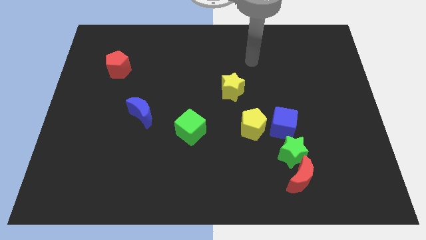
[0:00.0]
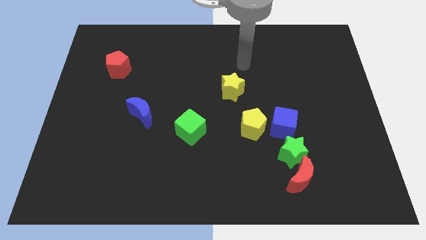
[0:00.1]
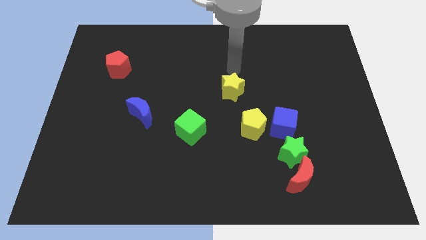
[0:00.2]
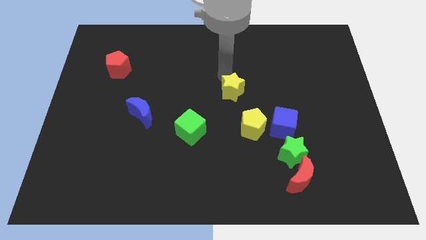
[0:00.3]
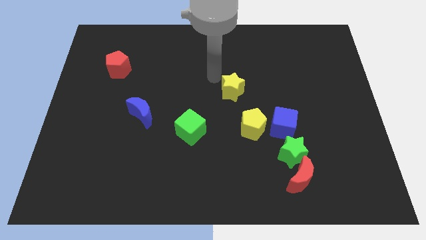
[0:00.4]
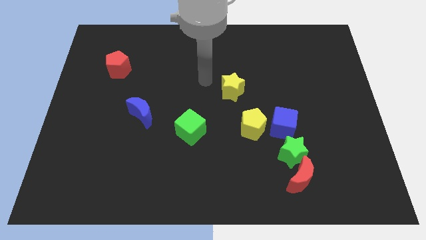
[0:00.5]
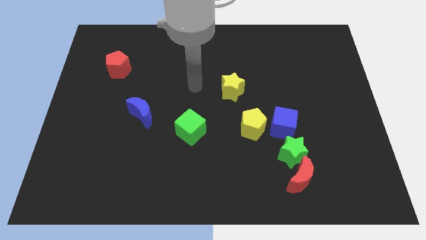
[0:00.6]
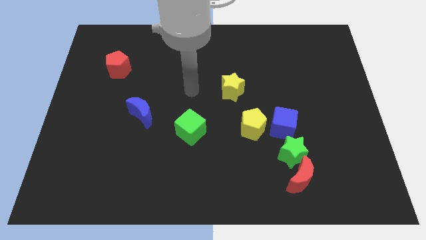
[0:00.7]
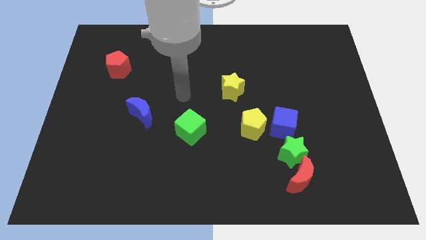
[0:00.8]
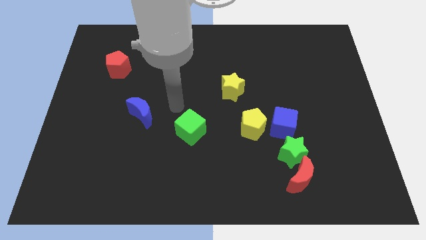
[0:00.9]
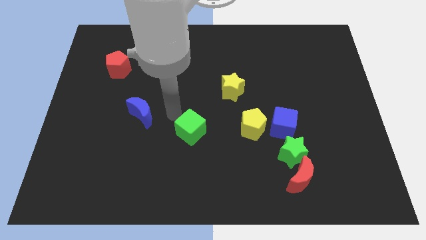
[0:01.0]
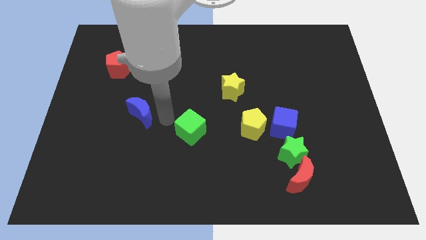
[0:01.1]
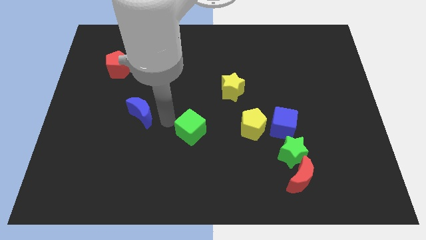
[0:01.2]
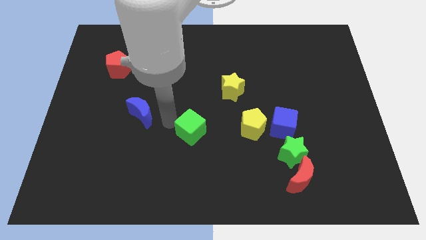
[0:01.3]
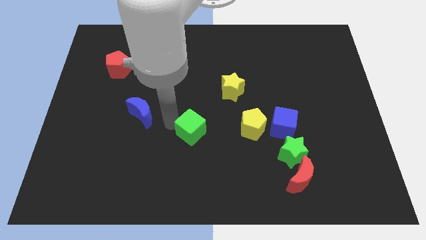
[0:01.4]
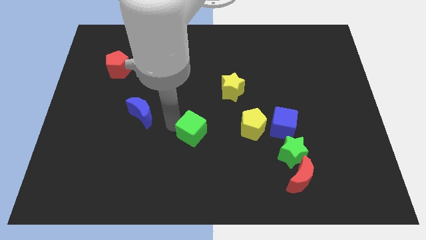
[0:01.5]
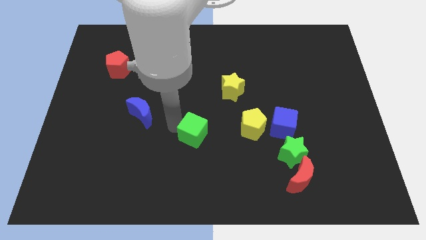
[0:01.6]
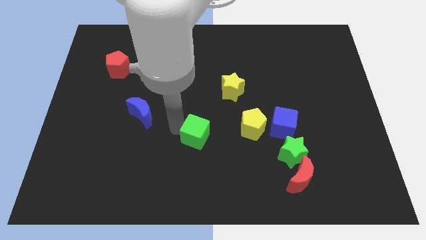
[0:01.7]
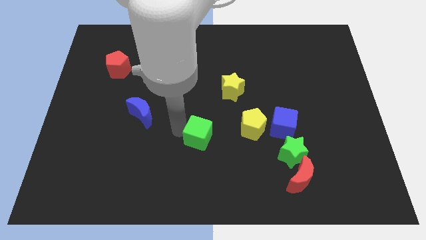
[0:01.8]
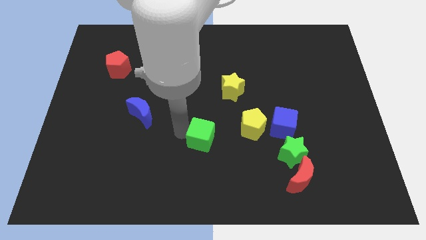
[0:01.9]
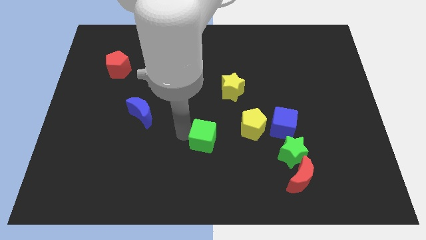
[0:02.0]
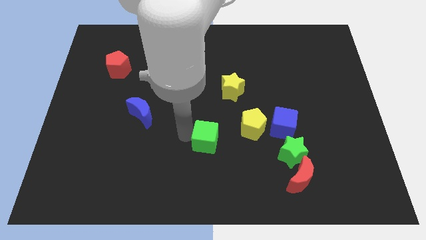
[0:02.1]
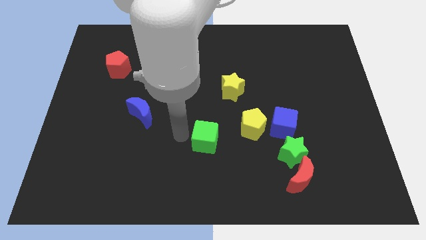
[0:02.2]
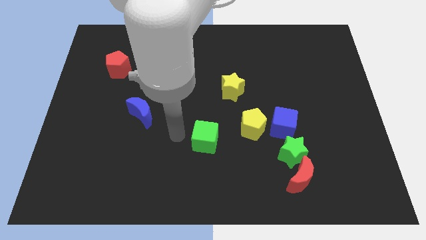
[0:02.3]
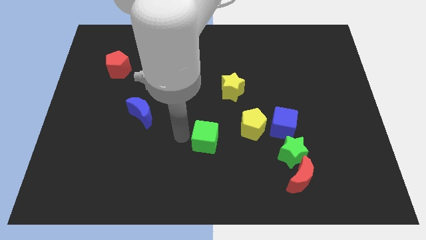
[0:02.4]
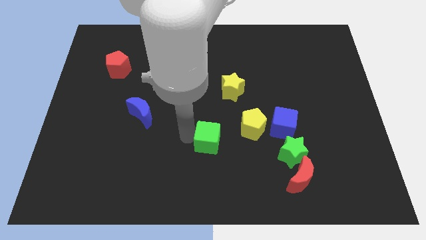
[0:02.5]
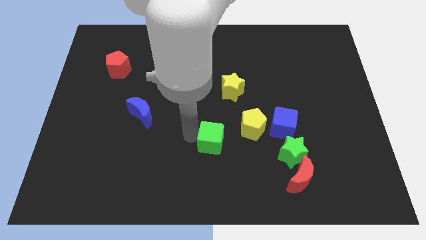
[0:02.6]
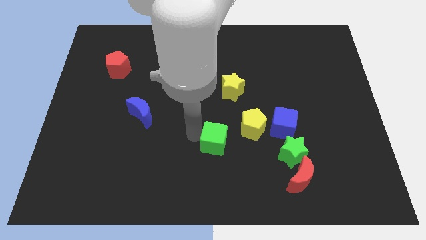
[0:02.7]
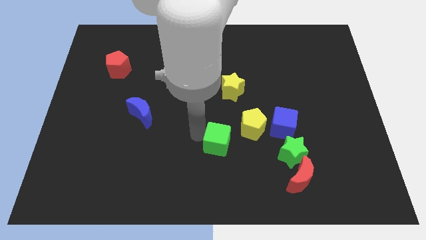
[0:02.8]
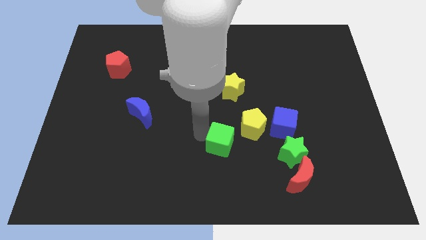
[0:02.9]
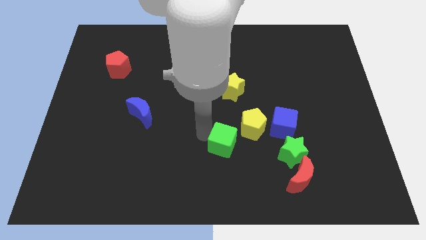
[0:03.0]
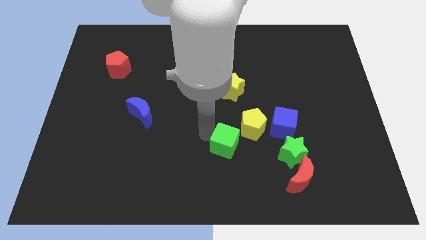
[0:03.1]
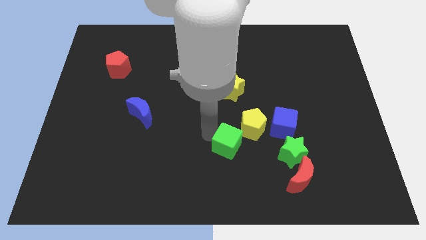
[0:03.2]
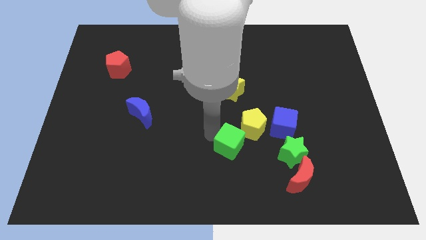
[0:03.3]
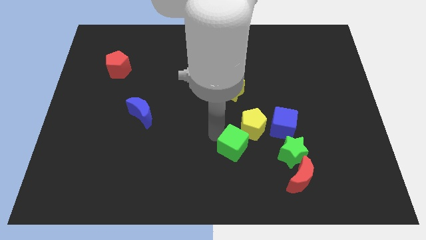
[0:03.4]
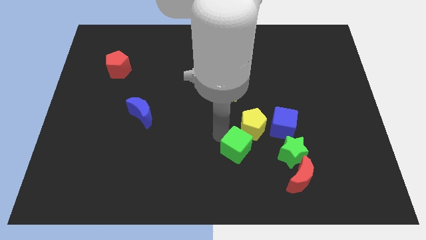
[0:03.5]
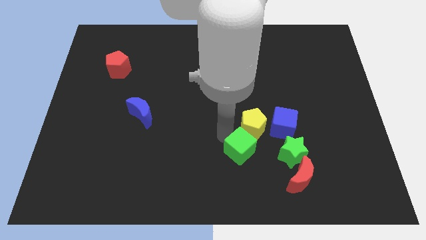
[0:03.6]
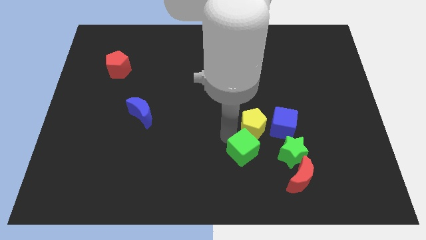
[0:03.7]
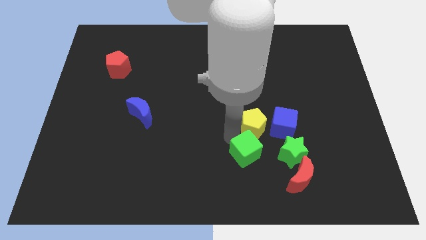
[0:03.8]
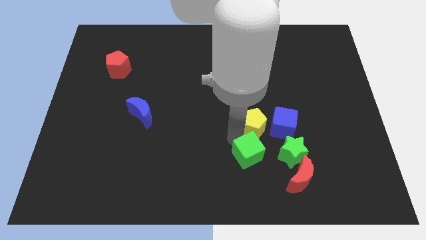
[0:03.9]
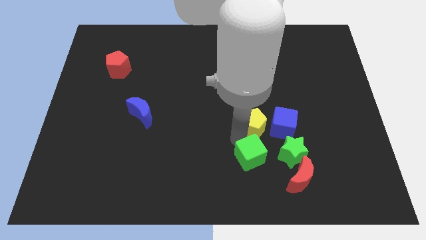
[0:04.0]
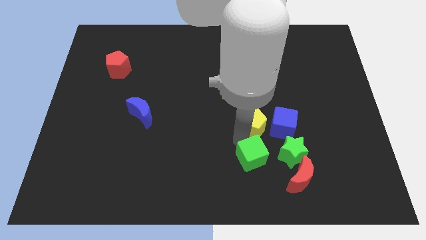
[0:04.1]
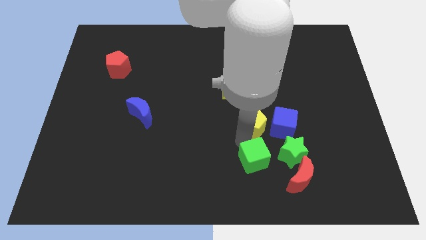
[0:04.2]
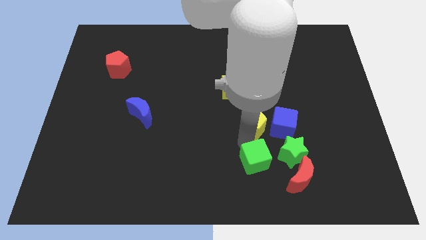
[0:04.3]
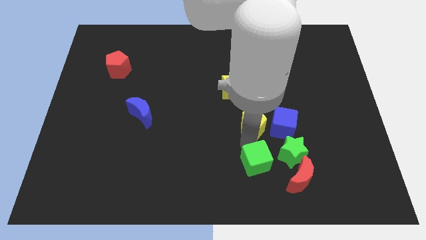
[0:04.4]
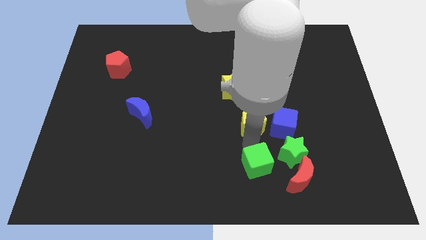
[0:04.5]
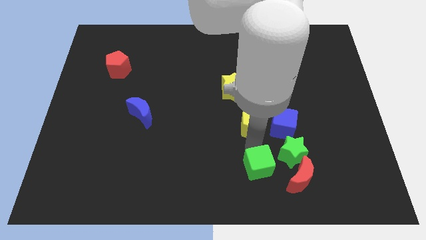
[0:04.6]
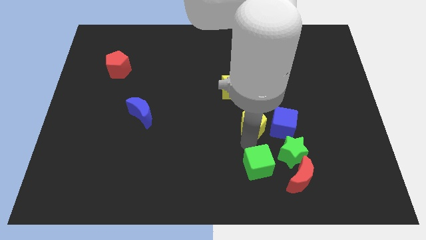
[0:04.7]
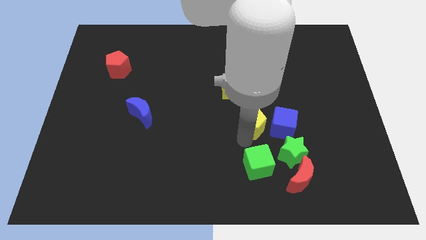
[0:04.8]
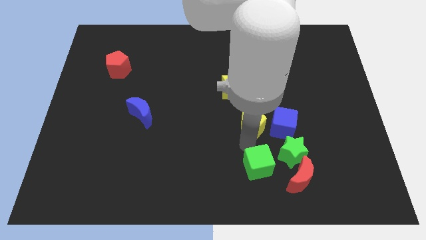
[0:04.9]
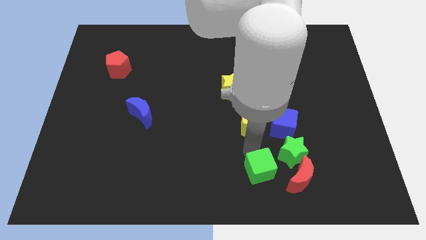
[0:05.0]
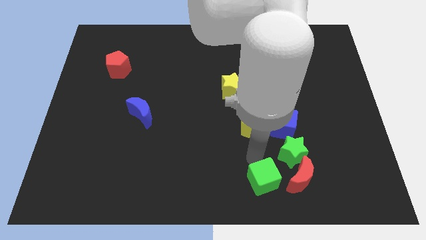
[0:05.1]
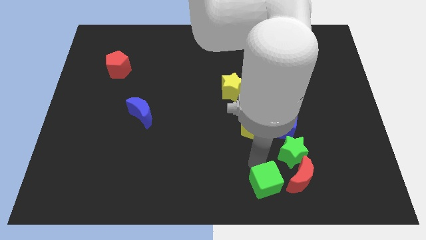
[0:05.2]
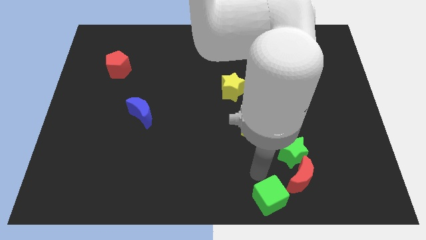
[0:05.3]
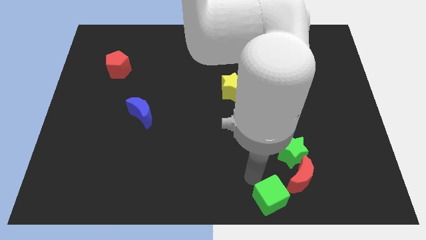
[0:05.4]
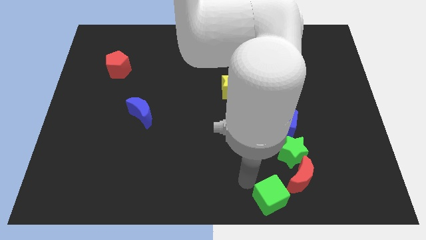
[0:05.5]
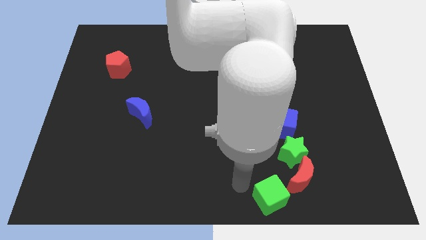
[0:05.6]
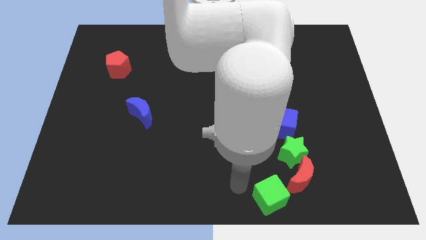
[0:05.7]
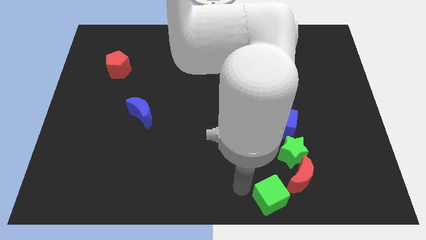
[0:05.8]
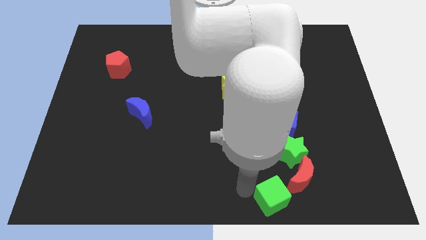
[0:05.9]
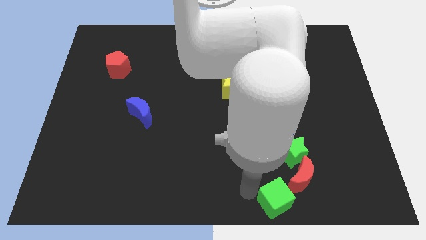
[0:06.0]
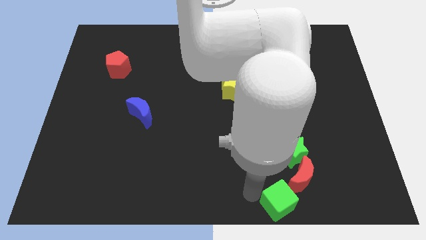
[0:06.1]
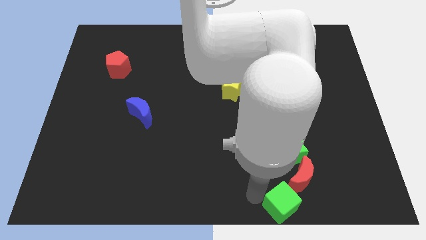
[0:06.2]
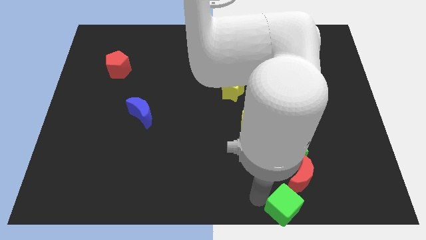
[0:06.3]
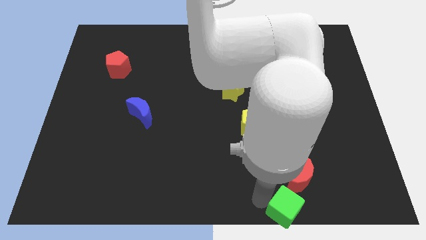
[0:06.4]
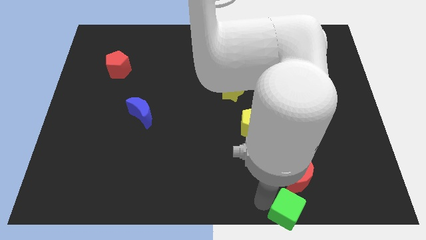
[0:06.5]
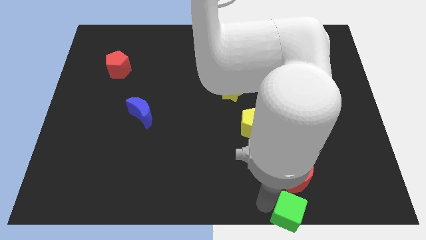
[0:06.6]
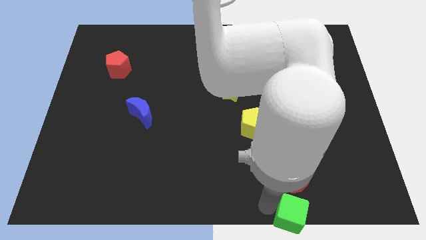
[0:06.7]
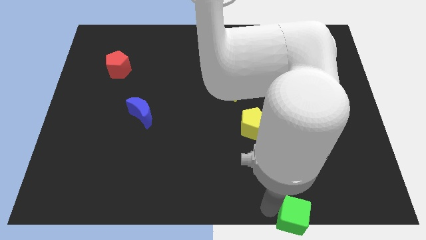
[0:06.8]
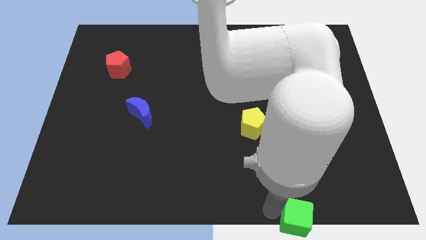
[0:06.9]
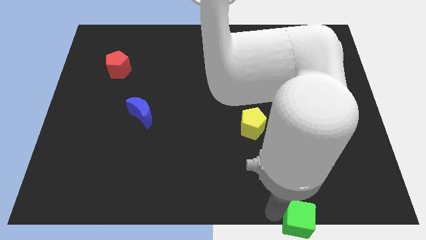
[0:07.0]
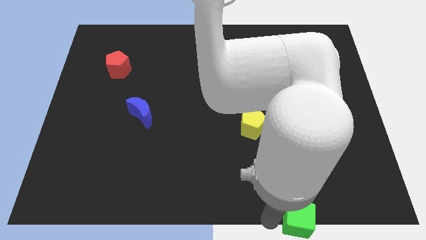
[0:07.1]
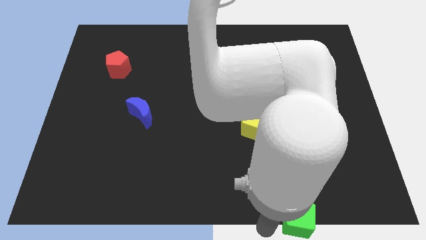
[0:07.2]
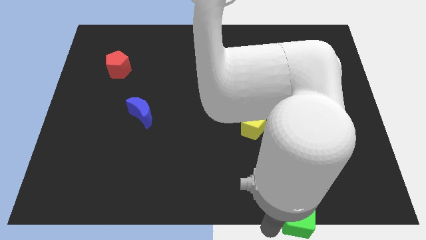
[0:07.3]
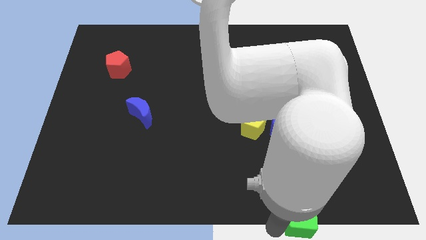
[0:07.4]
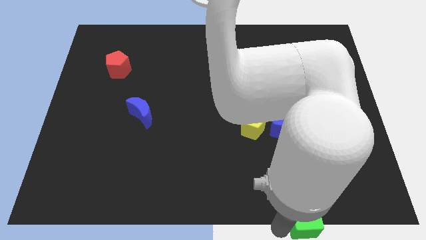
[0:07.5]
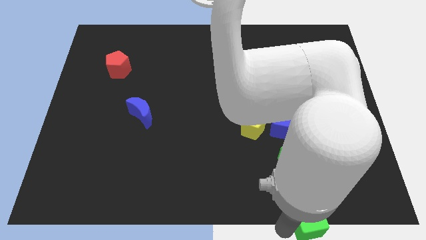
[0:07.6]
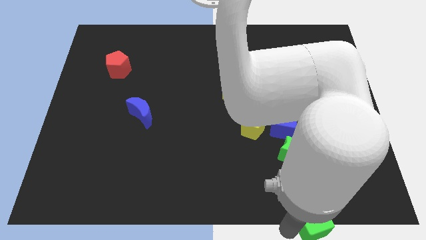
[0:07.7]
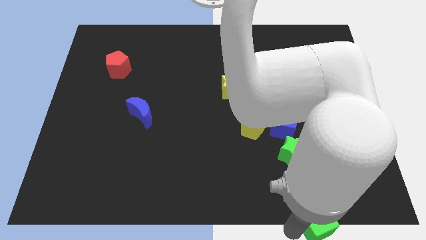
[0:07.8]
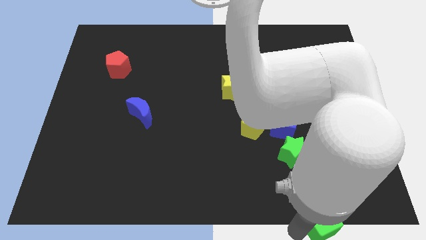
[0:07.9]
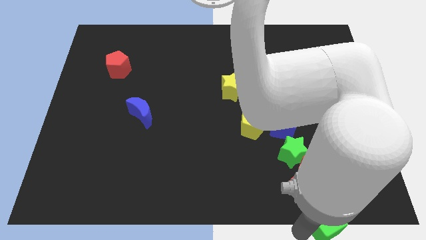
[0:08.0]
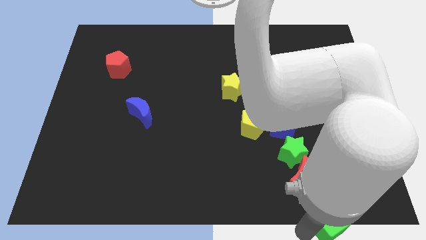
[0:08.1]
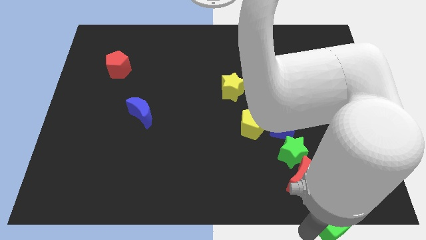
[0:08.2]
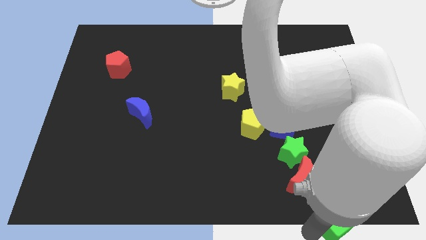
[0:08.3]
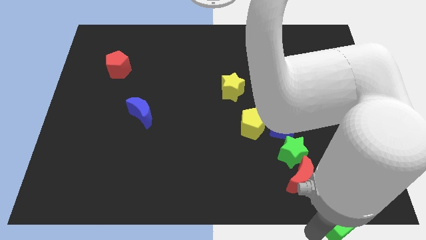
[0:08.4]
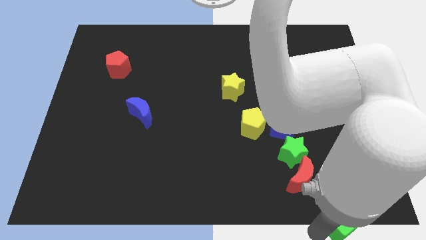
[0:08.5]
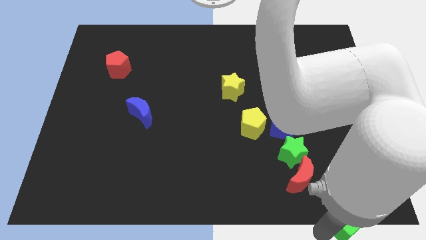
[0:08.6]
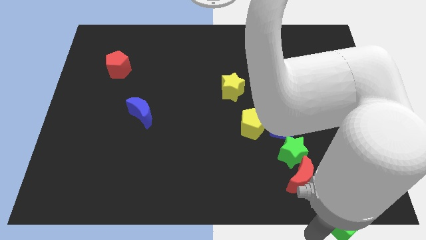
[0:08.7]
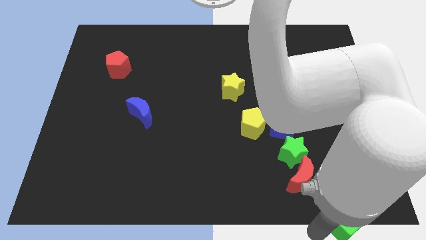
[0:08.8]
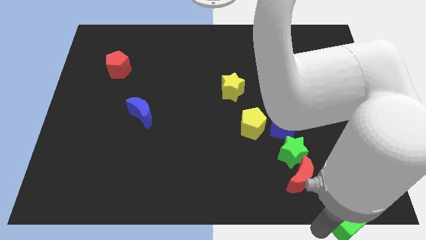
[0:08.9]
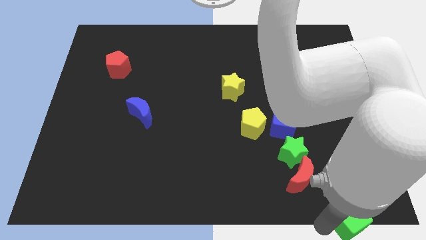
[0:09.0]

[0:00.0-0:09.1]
slide the green cube to the bottom right of the board
